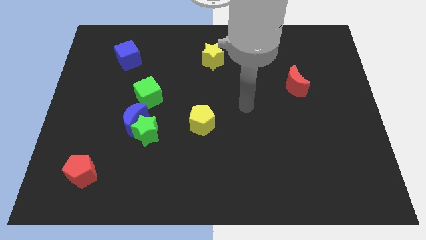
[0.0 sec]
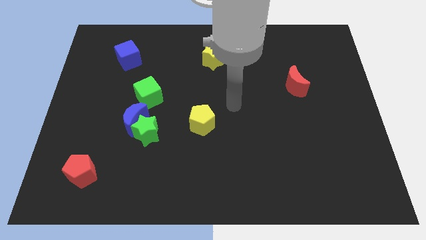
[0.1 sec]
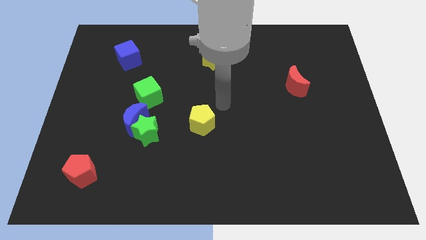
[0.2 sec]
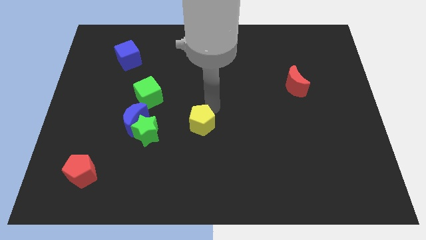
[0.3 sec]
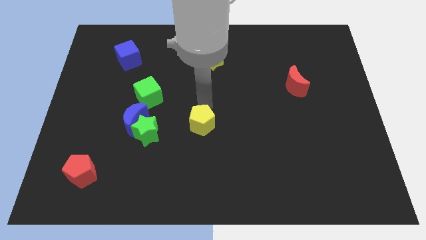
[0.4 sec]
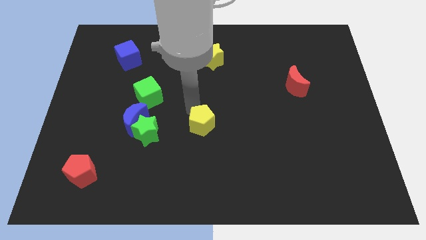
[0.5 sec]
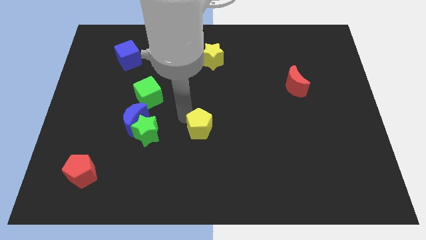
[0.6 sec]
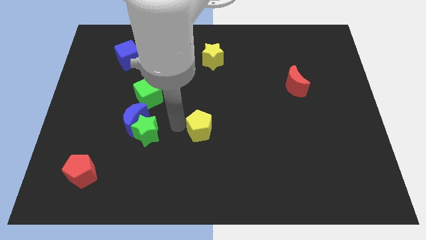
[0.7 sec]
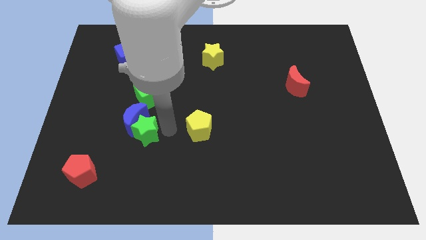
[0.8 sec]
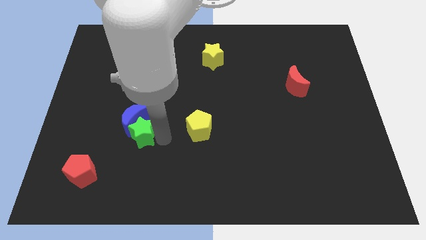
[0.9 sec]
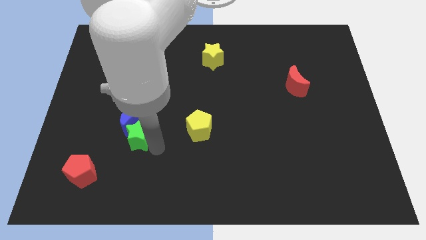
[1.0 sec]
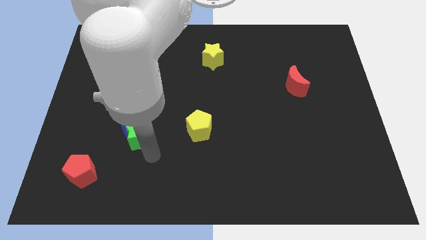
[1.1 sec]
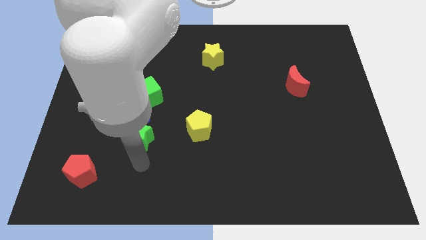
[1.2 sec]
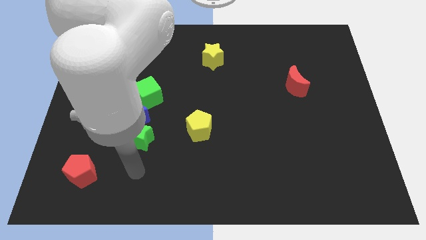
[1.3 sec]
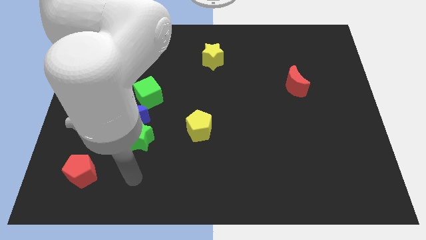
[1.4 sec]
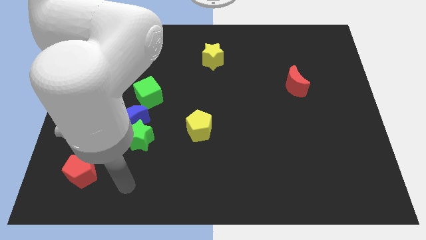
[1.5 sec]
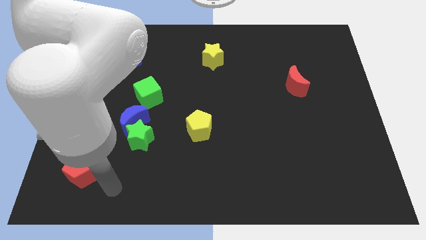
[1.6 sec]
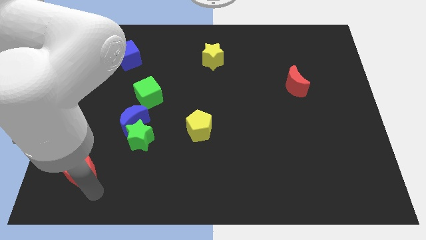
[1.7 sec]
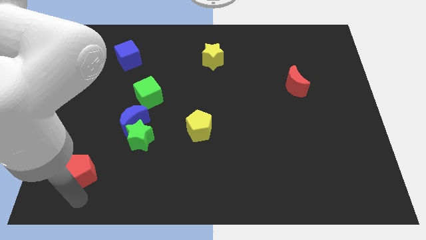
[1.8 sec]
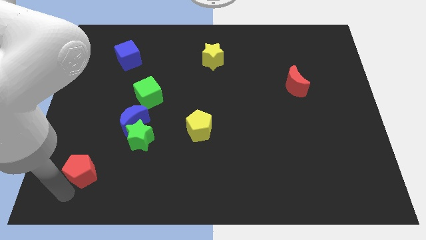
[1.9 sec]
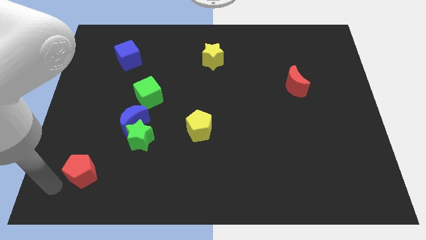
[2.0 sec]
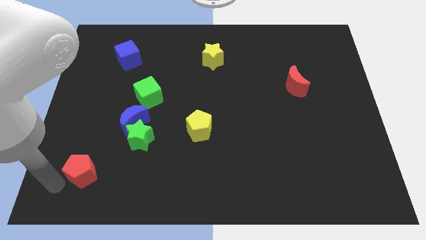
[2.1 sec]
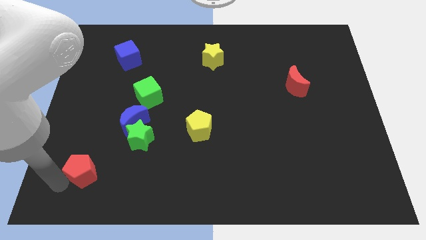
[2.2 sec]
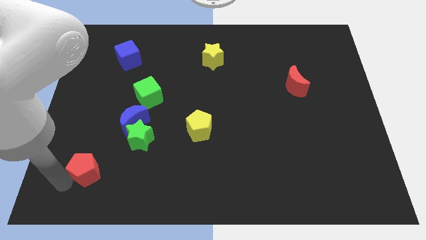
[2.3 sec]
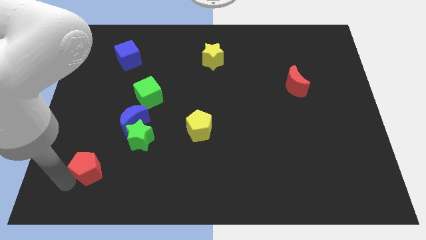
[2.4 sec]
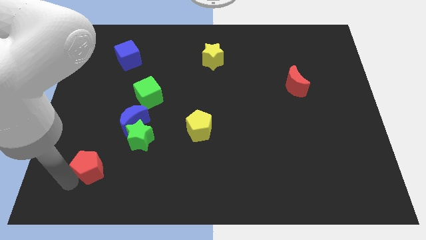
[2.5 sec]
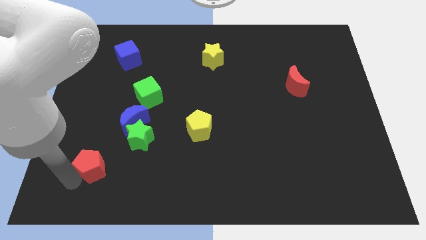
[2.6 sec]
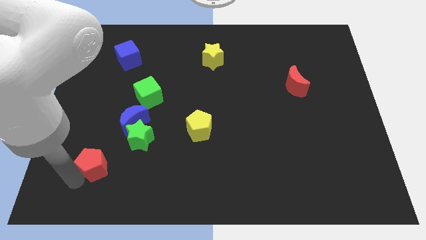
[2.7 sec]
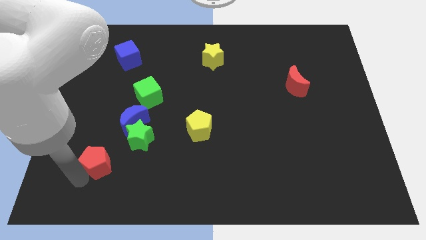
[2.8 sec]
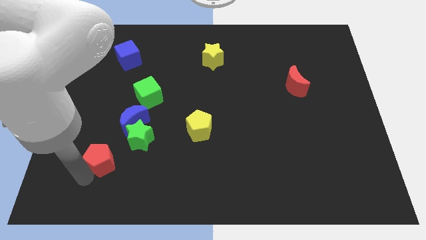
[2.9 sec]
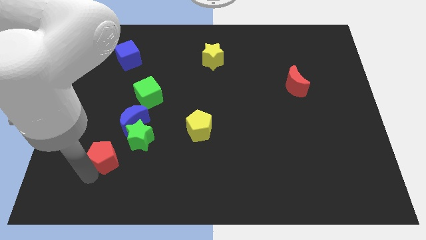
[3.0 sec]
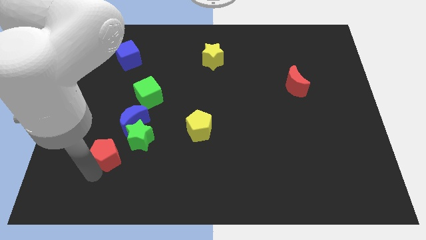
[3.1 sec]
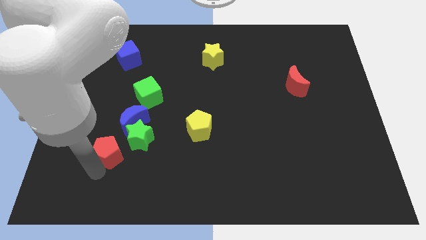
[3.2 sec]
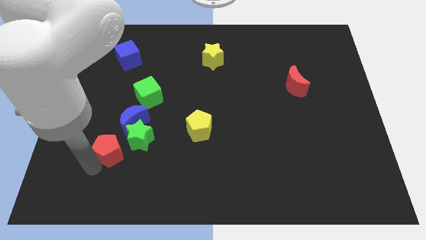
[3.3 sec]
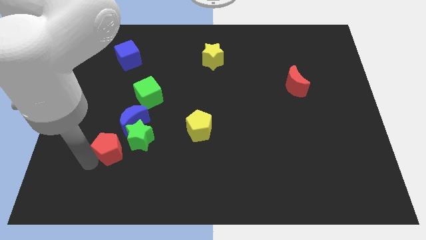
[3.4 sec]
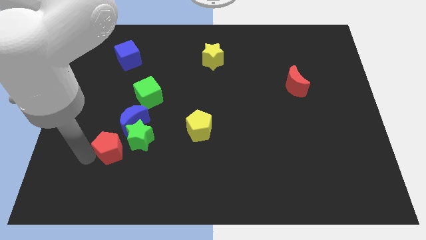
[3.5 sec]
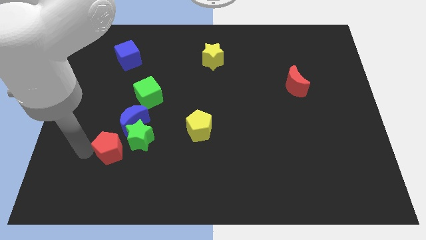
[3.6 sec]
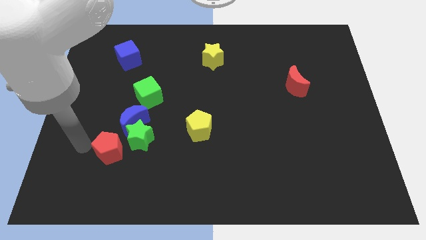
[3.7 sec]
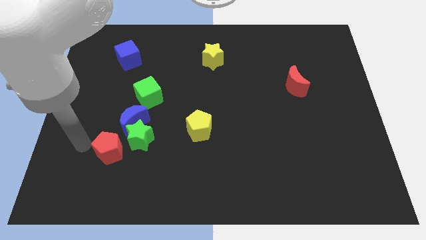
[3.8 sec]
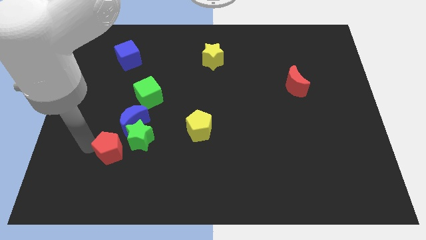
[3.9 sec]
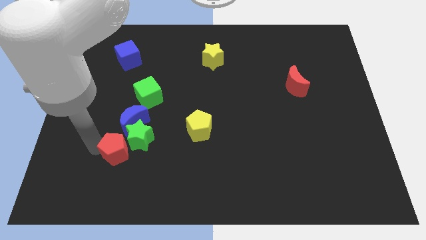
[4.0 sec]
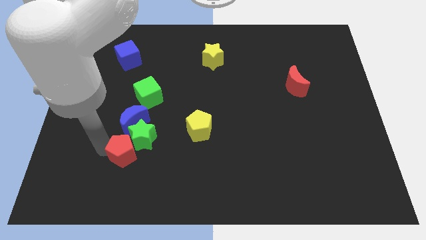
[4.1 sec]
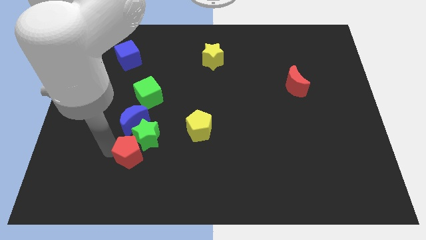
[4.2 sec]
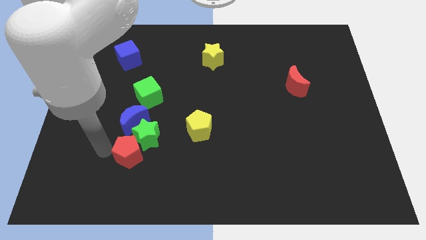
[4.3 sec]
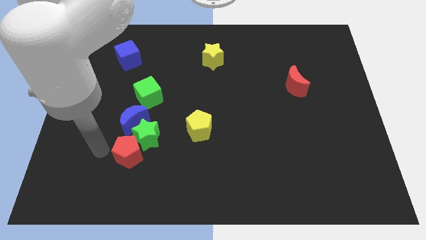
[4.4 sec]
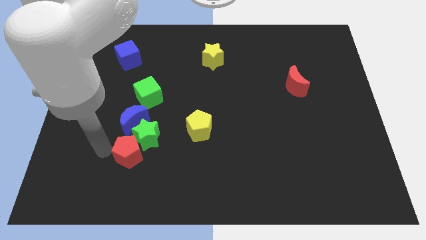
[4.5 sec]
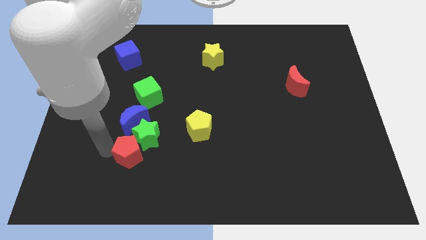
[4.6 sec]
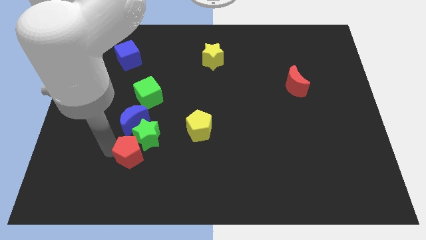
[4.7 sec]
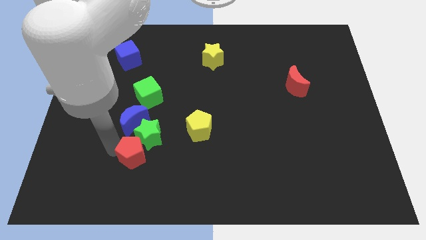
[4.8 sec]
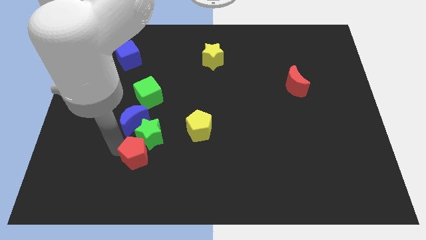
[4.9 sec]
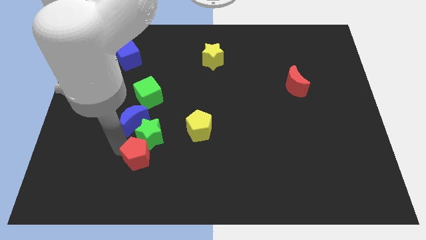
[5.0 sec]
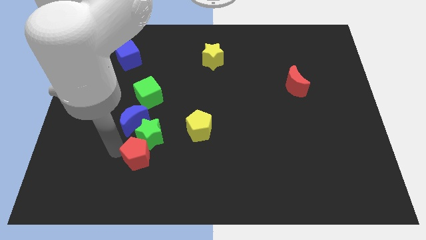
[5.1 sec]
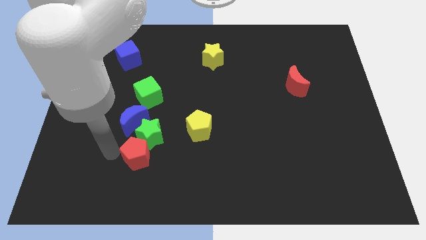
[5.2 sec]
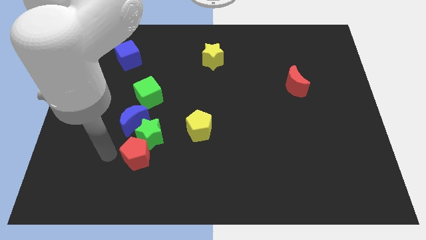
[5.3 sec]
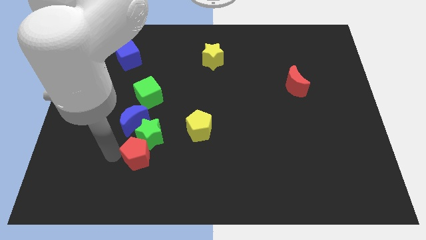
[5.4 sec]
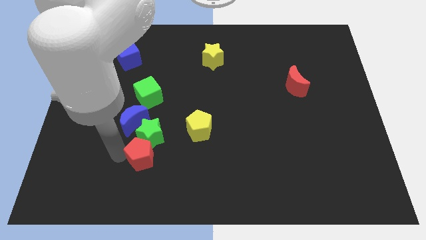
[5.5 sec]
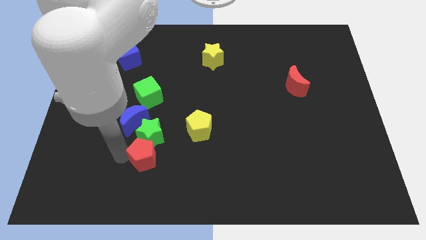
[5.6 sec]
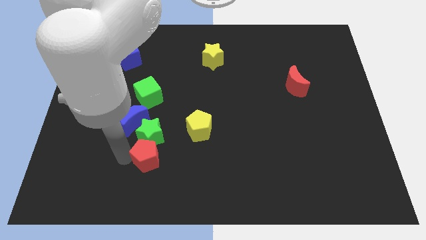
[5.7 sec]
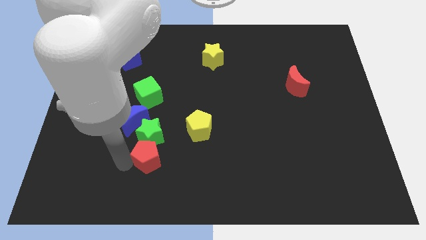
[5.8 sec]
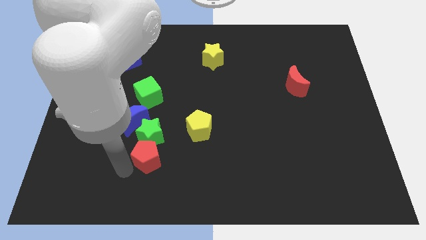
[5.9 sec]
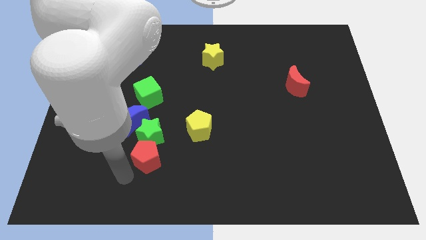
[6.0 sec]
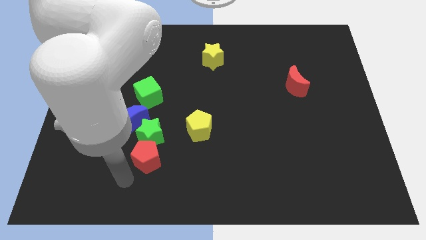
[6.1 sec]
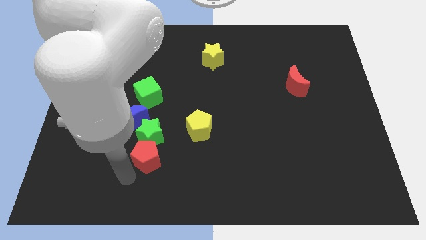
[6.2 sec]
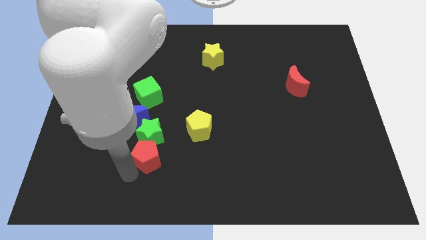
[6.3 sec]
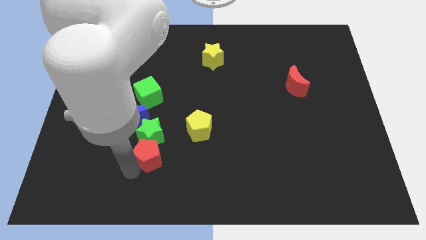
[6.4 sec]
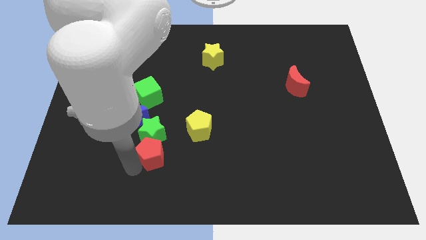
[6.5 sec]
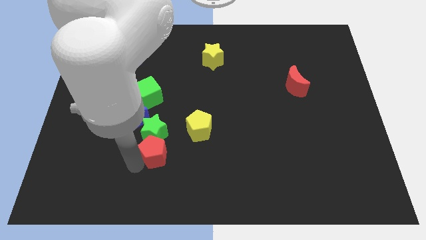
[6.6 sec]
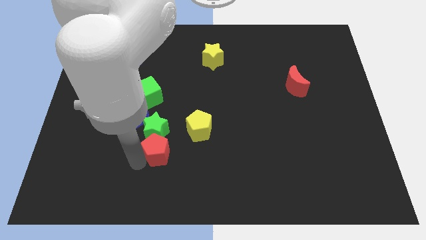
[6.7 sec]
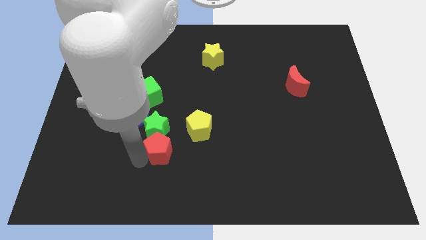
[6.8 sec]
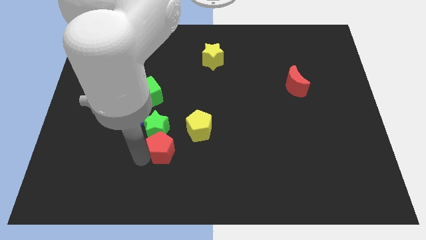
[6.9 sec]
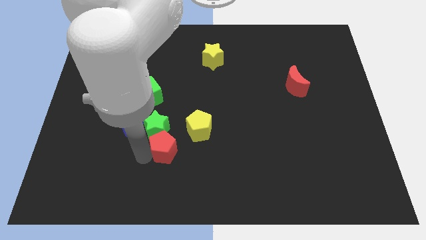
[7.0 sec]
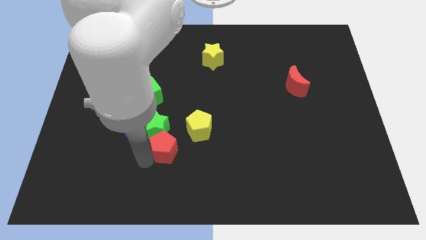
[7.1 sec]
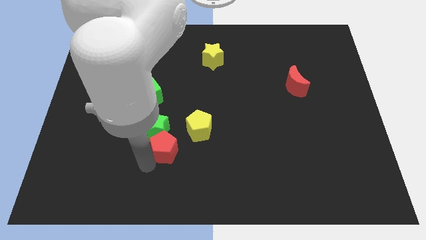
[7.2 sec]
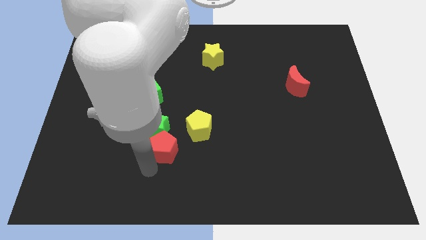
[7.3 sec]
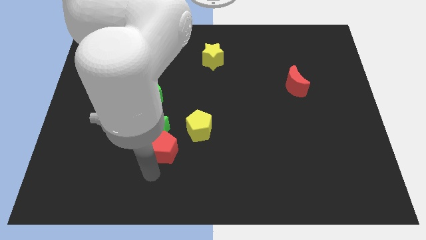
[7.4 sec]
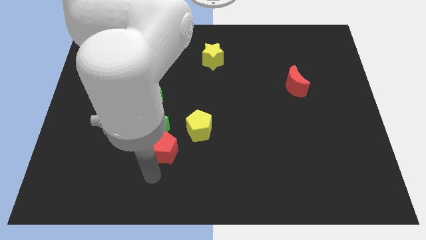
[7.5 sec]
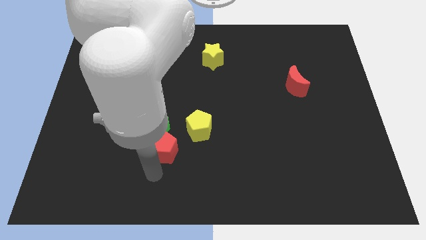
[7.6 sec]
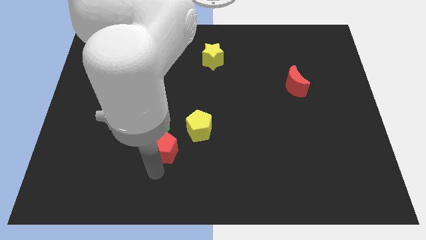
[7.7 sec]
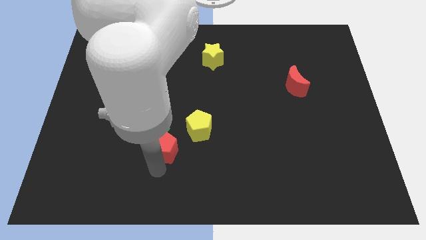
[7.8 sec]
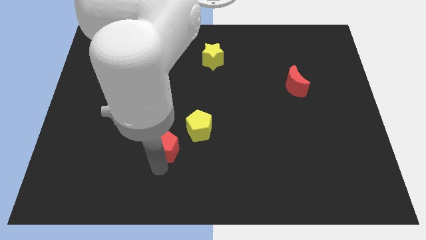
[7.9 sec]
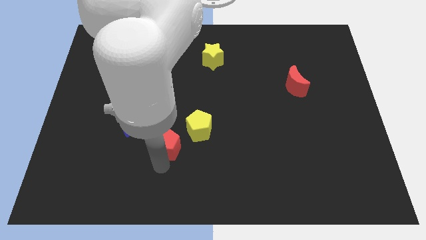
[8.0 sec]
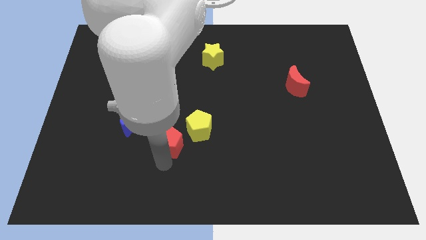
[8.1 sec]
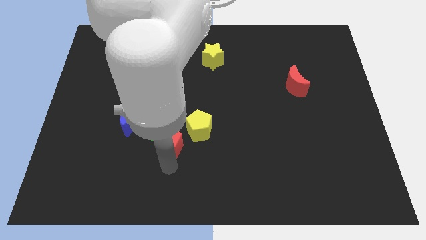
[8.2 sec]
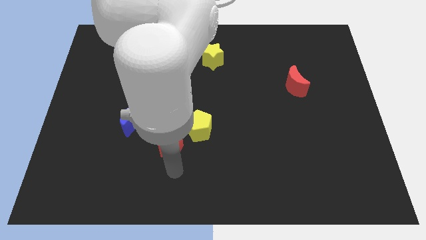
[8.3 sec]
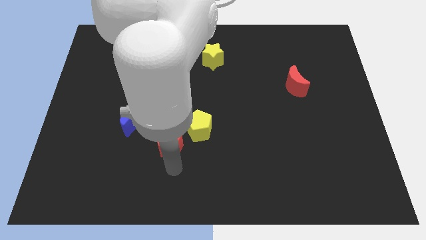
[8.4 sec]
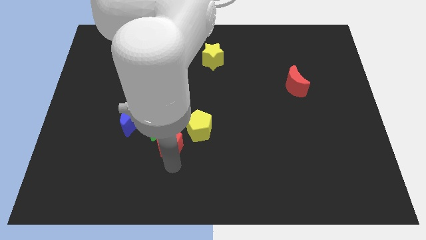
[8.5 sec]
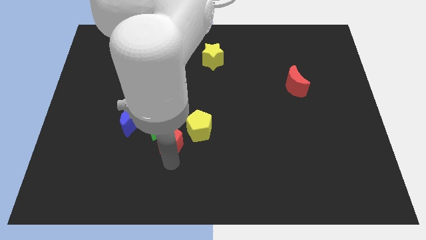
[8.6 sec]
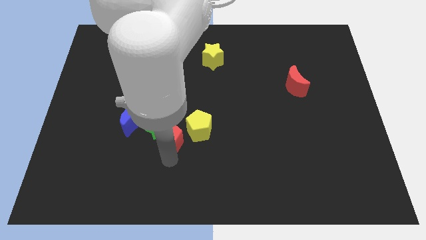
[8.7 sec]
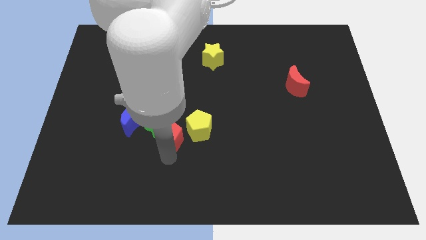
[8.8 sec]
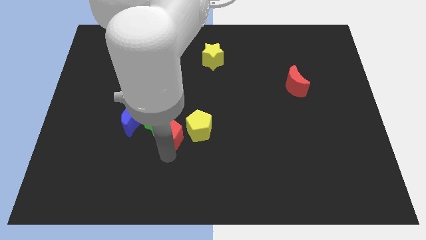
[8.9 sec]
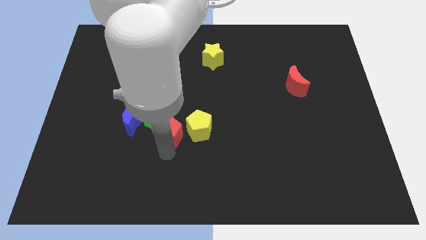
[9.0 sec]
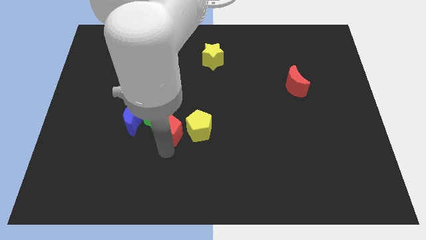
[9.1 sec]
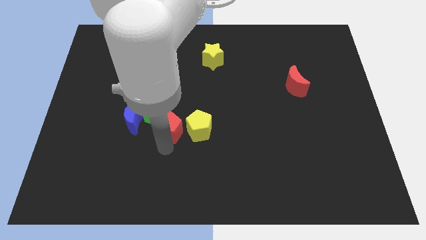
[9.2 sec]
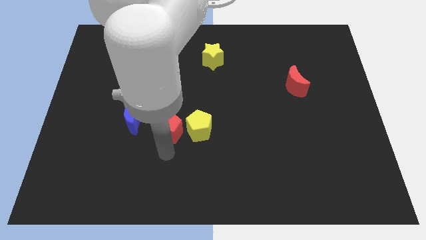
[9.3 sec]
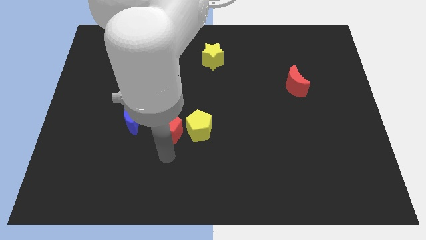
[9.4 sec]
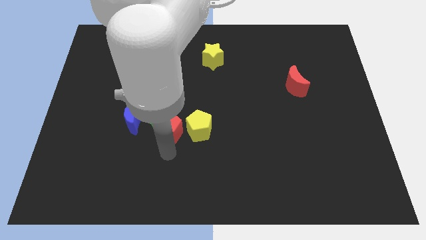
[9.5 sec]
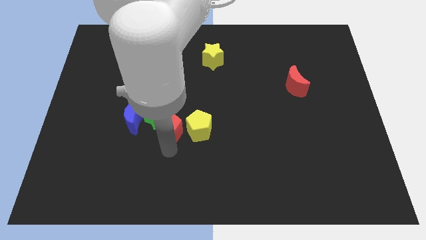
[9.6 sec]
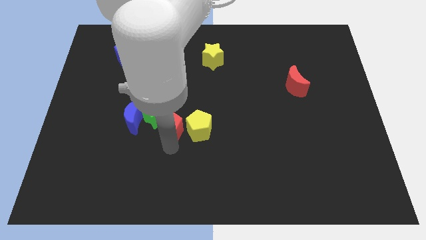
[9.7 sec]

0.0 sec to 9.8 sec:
slide the red pentagon to the middle of the board
